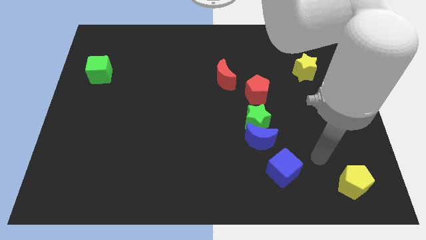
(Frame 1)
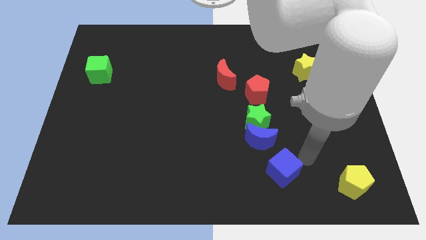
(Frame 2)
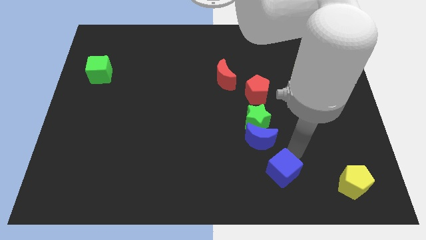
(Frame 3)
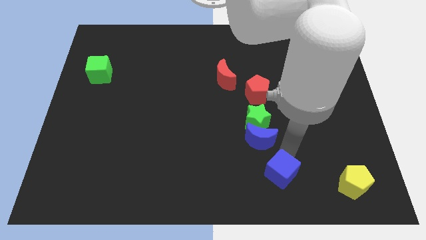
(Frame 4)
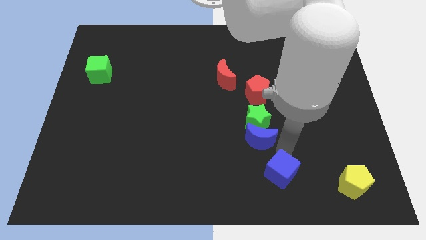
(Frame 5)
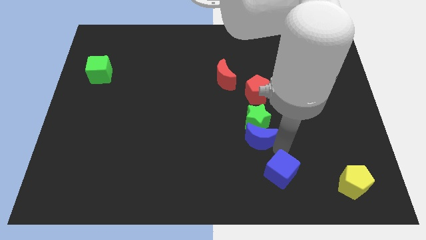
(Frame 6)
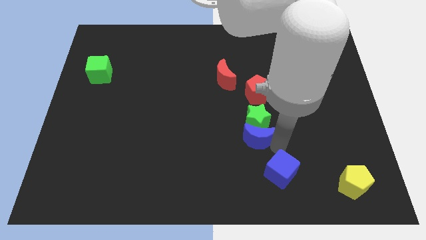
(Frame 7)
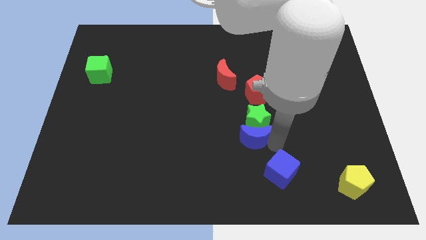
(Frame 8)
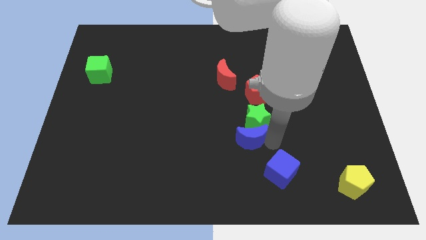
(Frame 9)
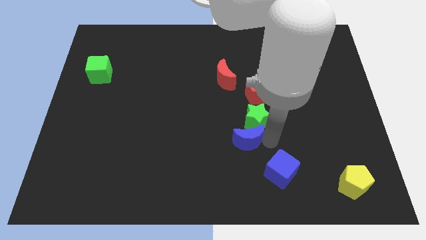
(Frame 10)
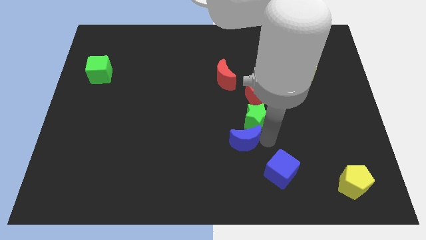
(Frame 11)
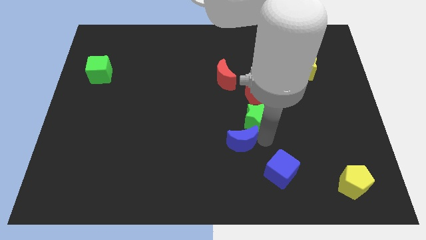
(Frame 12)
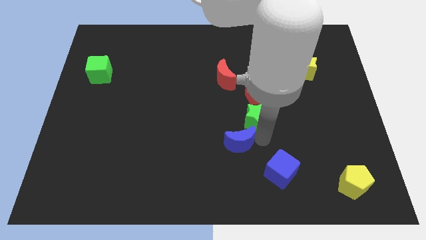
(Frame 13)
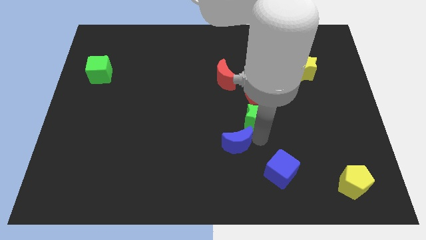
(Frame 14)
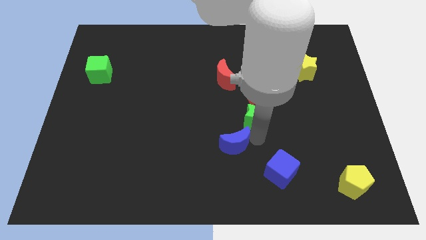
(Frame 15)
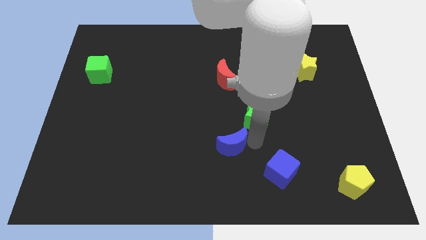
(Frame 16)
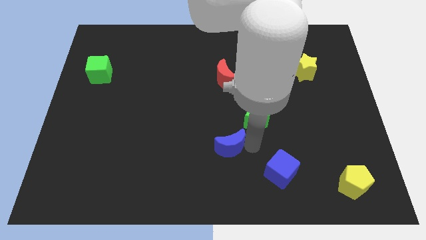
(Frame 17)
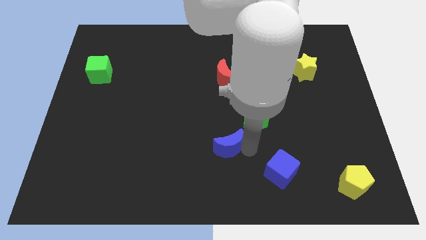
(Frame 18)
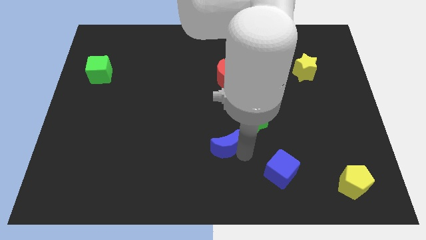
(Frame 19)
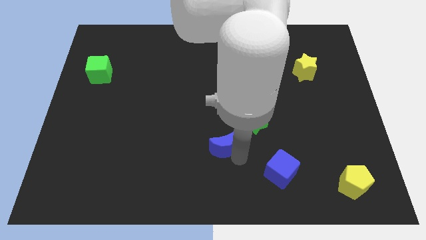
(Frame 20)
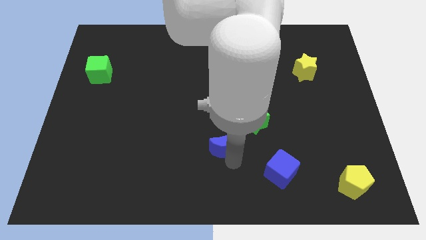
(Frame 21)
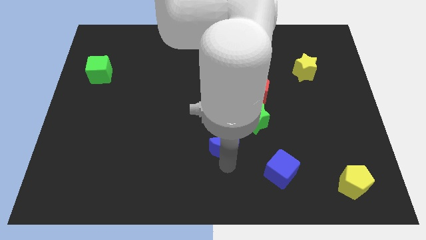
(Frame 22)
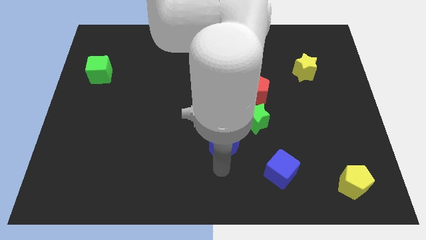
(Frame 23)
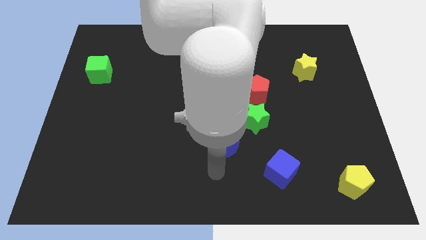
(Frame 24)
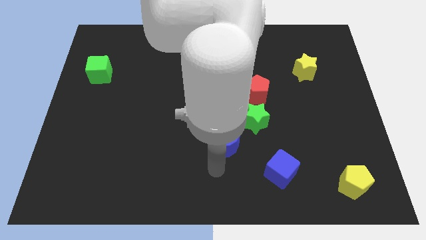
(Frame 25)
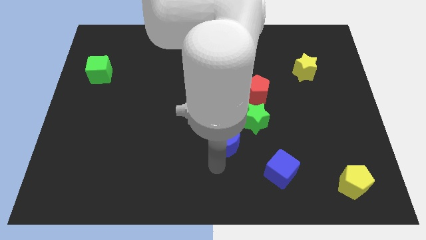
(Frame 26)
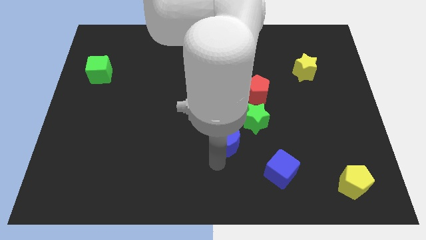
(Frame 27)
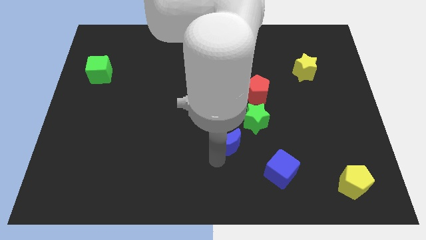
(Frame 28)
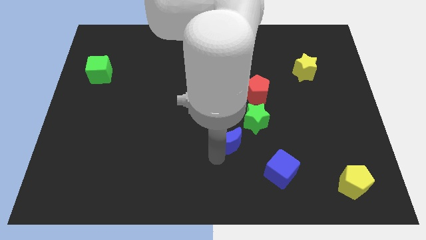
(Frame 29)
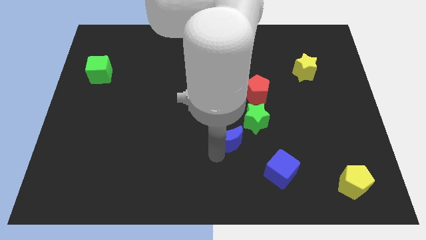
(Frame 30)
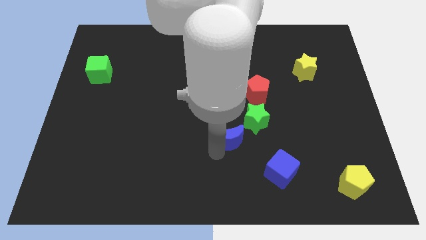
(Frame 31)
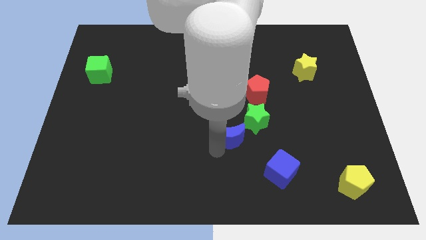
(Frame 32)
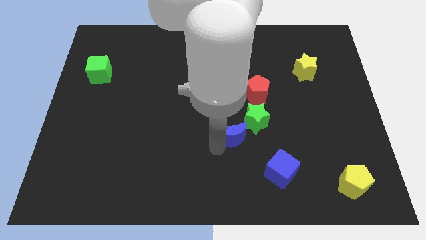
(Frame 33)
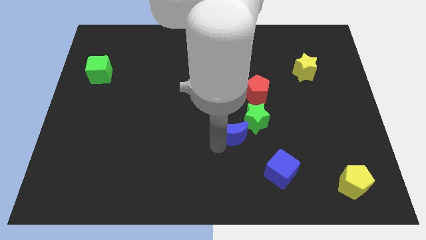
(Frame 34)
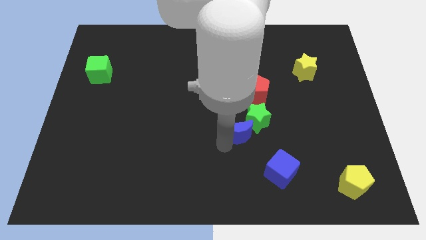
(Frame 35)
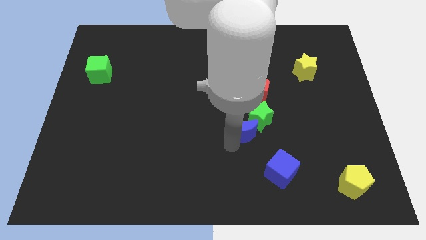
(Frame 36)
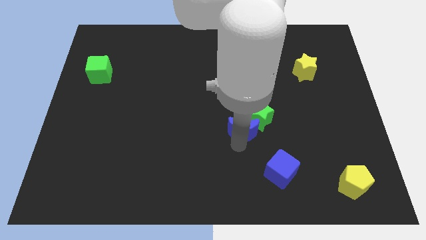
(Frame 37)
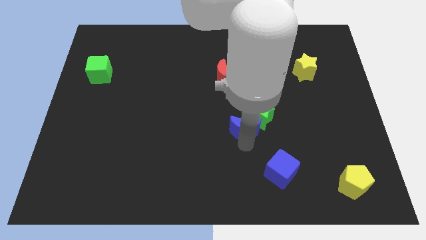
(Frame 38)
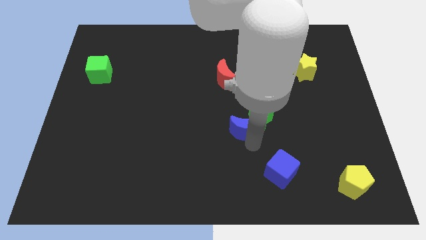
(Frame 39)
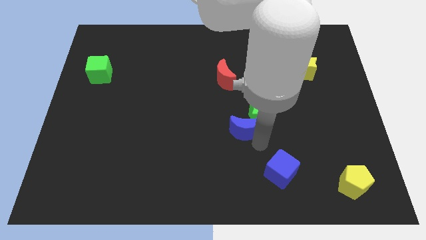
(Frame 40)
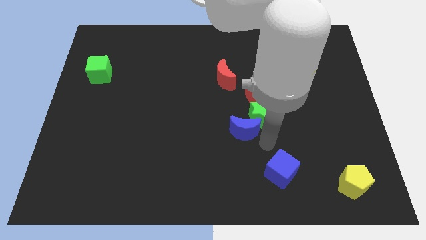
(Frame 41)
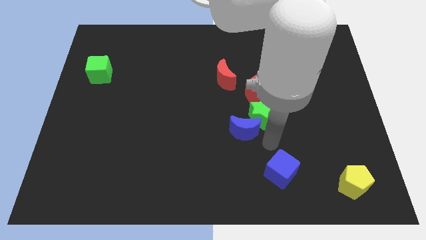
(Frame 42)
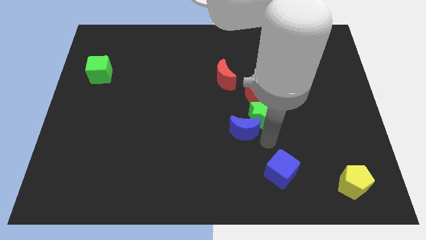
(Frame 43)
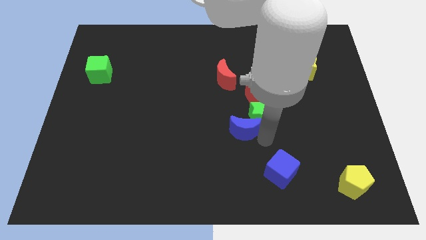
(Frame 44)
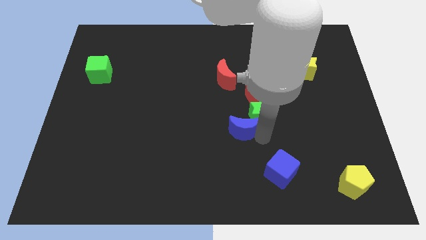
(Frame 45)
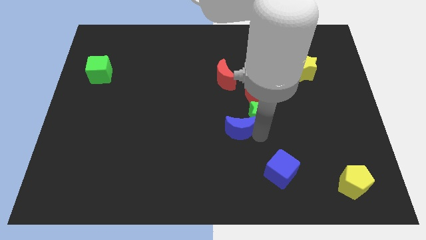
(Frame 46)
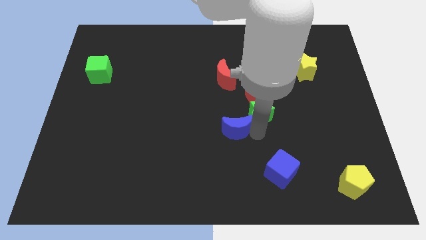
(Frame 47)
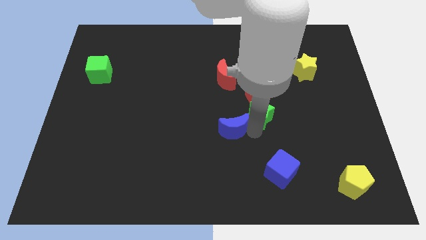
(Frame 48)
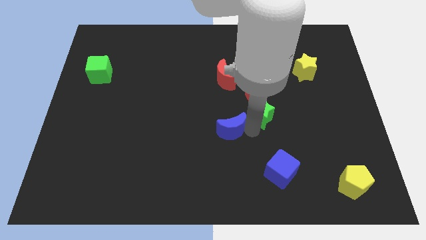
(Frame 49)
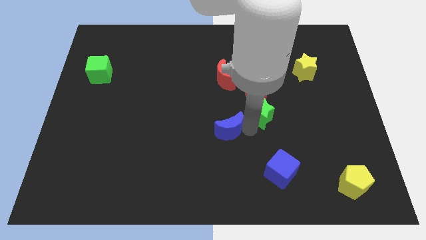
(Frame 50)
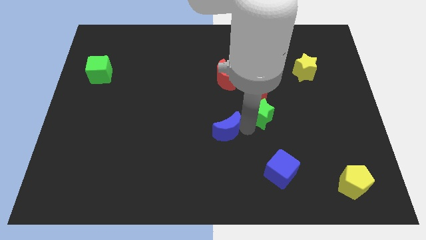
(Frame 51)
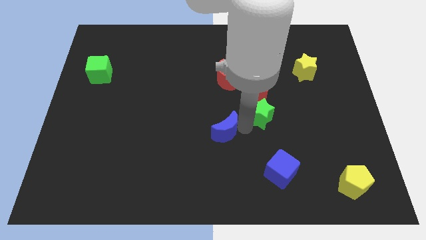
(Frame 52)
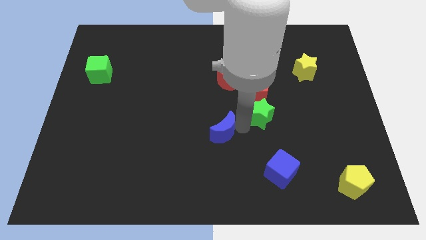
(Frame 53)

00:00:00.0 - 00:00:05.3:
move the blue moon away from the green star and blue cube

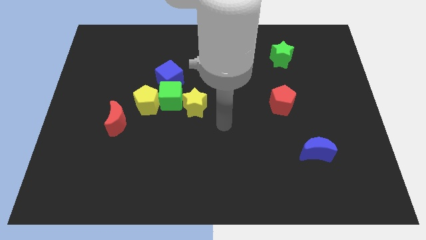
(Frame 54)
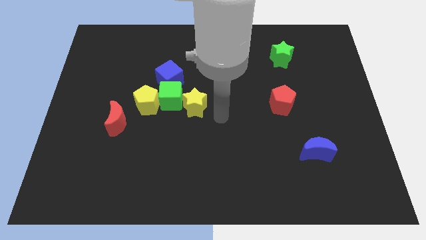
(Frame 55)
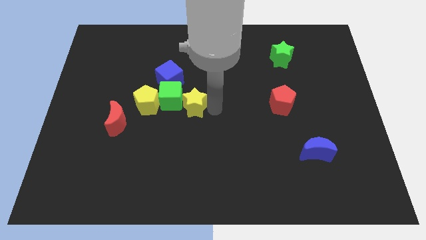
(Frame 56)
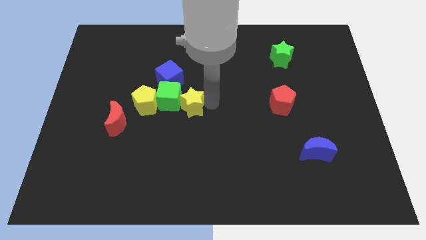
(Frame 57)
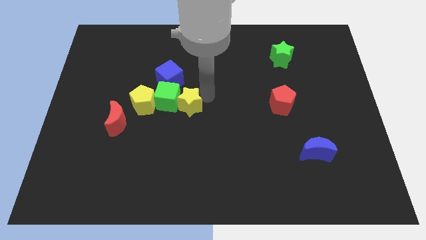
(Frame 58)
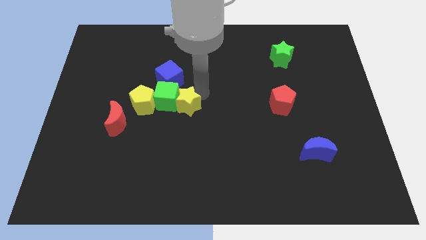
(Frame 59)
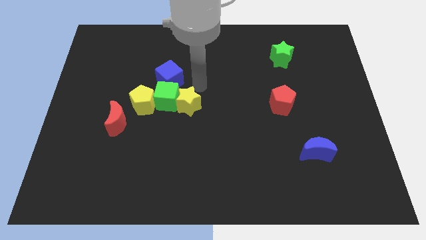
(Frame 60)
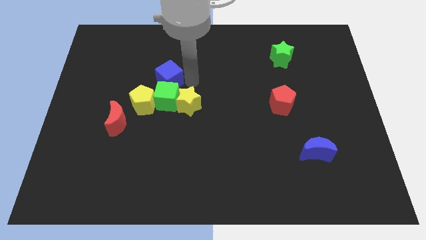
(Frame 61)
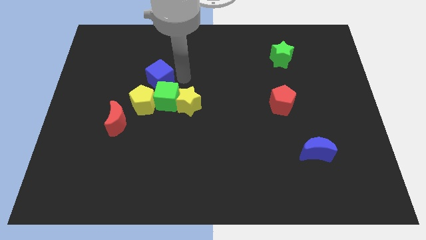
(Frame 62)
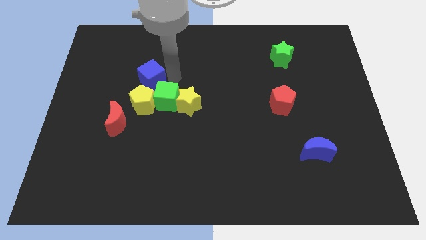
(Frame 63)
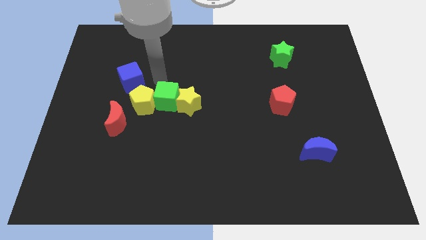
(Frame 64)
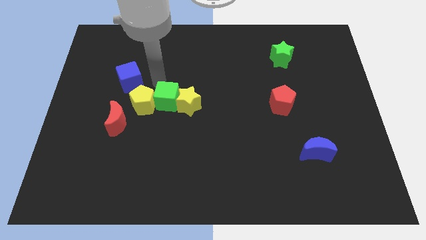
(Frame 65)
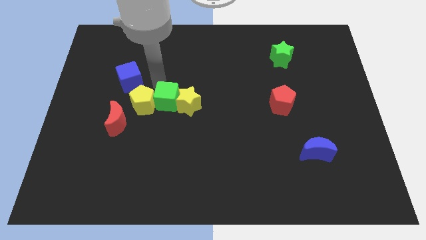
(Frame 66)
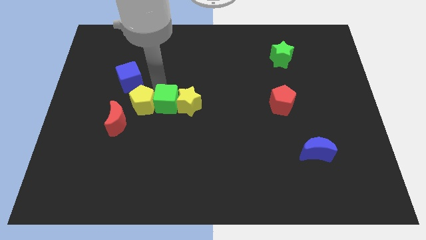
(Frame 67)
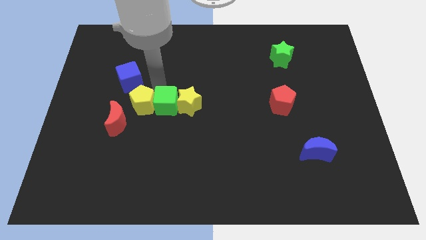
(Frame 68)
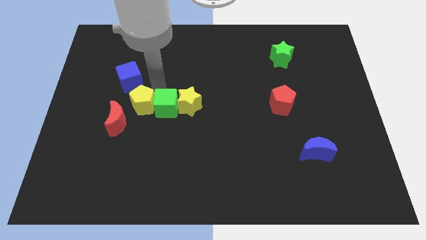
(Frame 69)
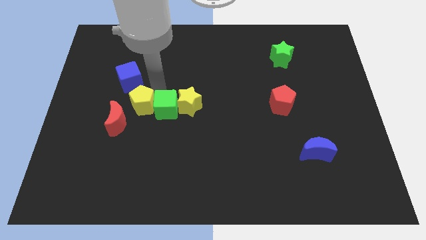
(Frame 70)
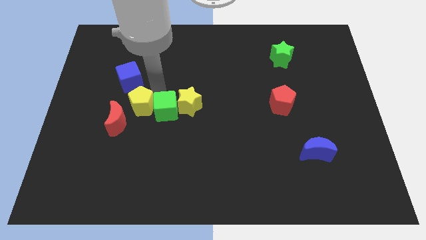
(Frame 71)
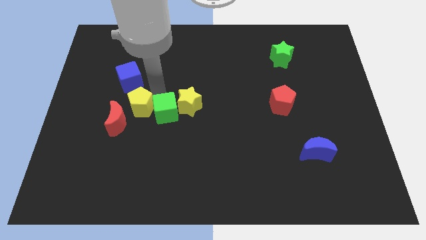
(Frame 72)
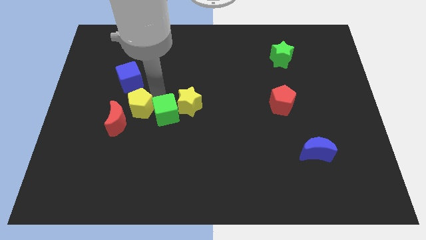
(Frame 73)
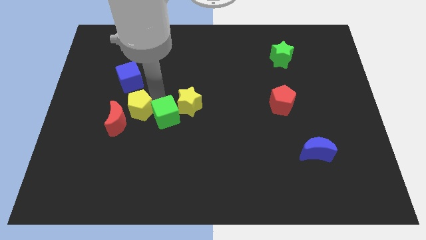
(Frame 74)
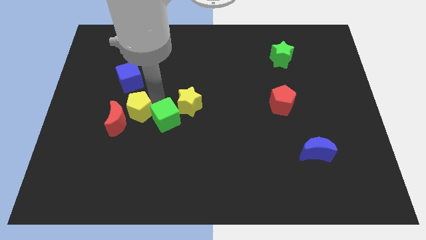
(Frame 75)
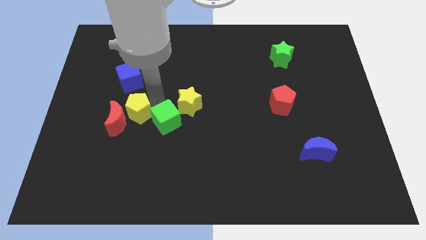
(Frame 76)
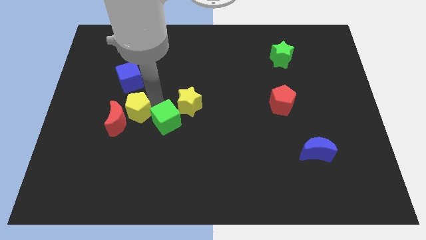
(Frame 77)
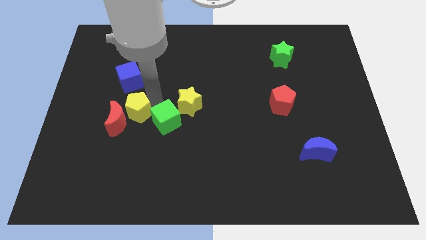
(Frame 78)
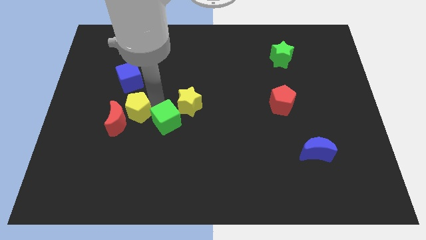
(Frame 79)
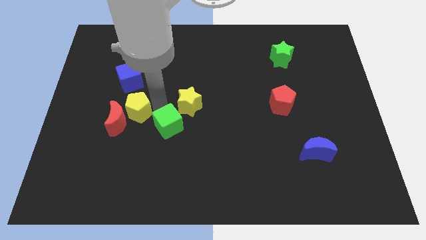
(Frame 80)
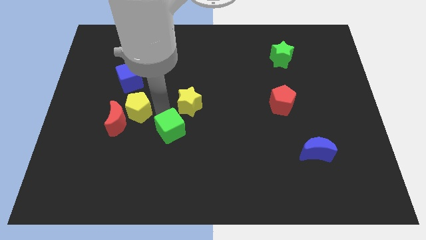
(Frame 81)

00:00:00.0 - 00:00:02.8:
separate the green cube from the yellow pentagon, yellow star, and blue cube

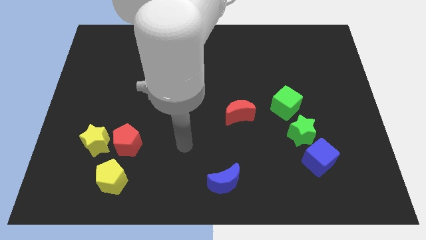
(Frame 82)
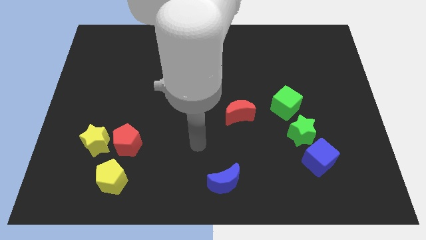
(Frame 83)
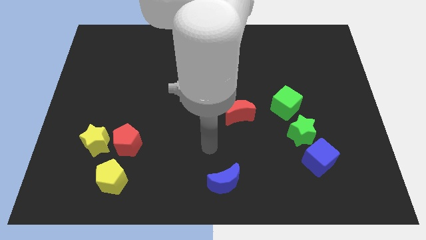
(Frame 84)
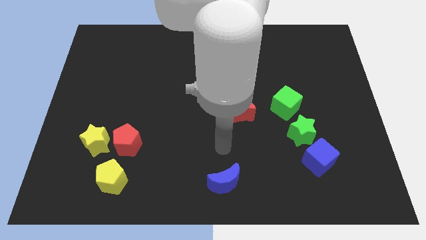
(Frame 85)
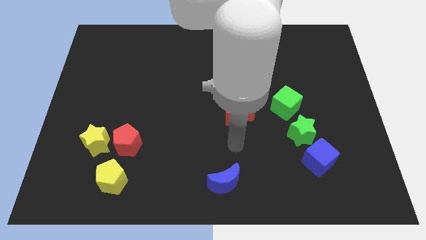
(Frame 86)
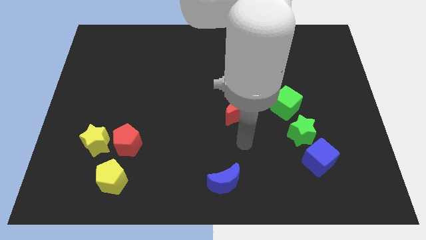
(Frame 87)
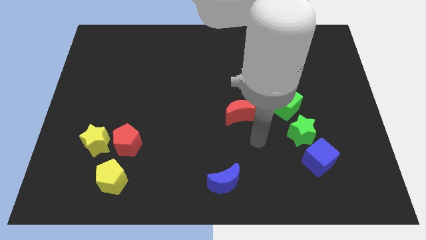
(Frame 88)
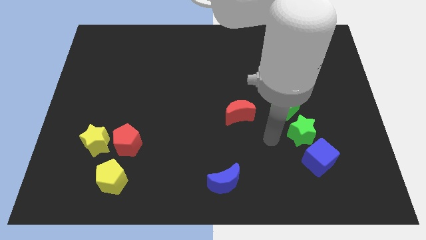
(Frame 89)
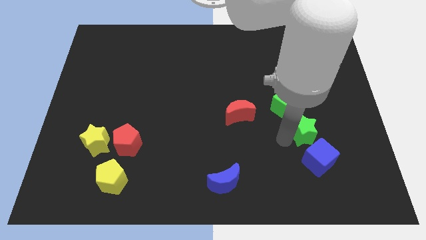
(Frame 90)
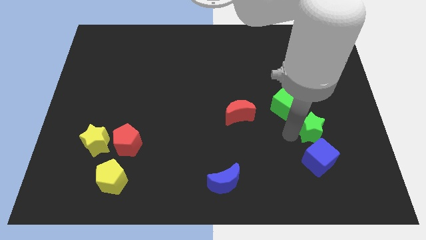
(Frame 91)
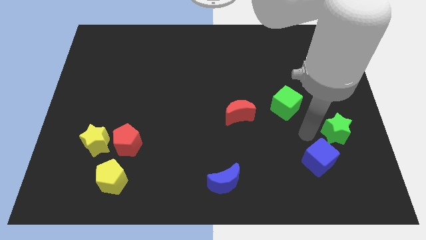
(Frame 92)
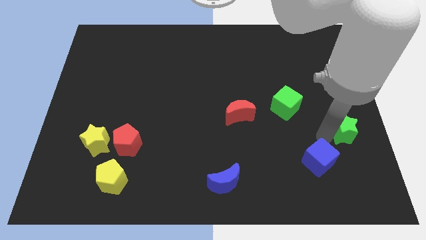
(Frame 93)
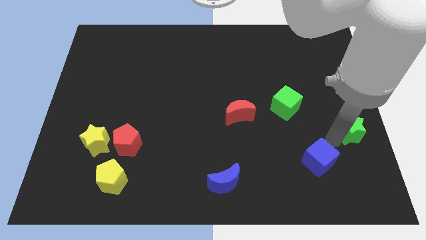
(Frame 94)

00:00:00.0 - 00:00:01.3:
separate the blue cube from the green star
